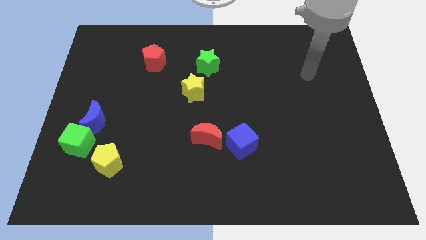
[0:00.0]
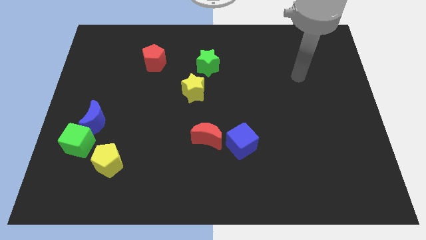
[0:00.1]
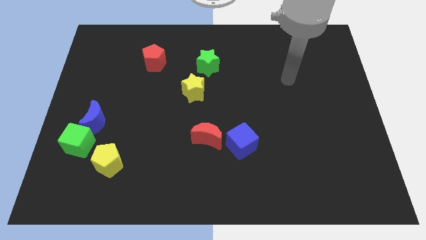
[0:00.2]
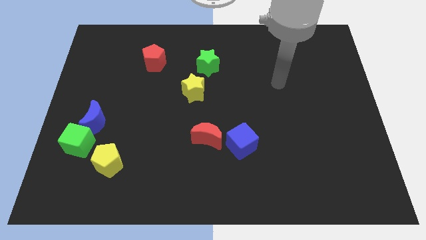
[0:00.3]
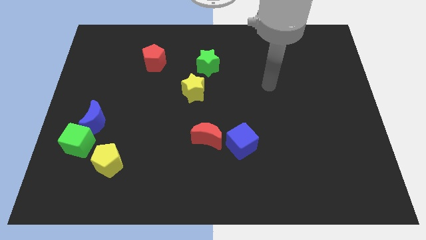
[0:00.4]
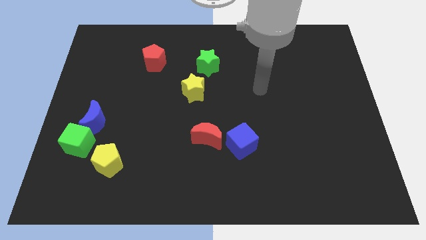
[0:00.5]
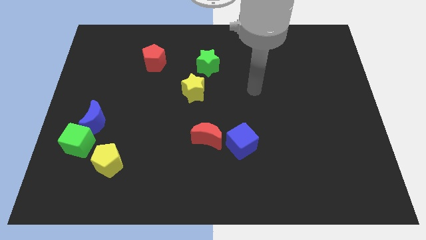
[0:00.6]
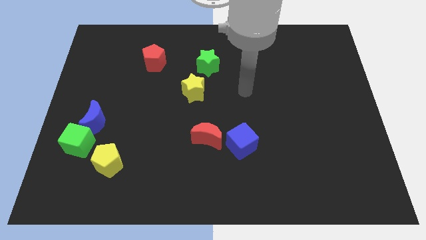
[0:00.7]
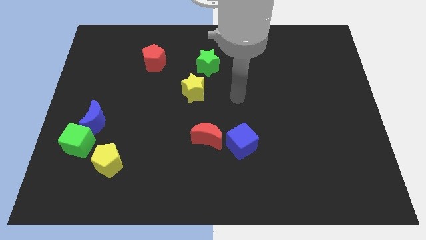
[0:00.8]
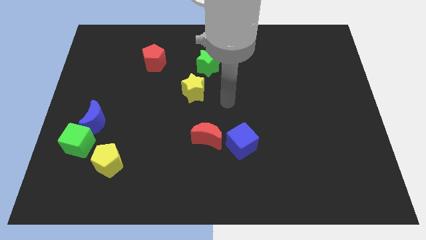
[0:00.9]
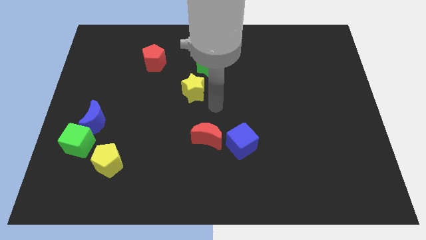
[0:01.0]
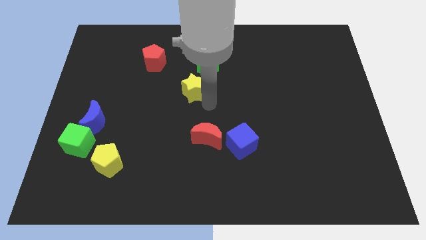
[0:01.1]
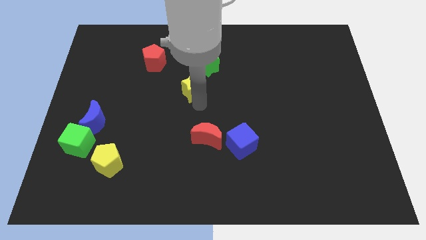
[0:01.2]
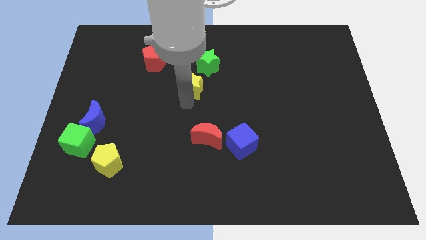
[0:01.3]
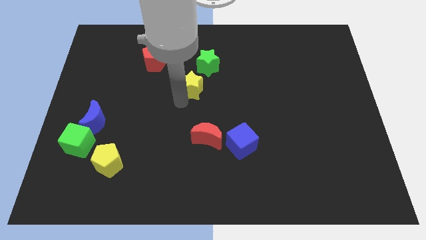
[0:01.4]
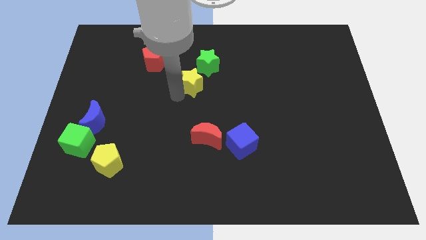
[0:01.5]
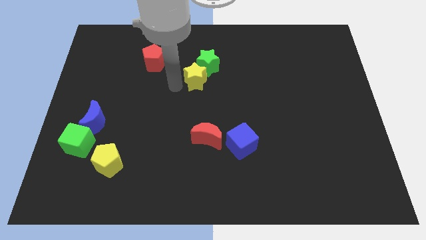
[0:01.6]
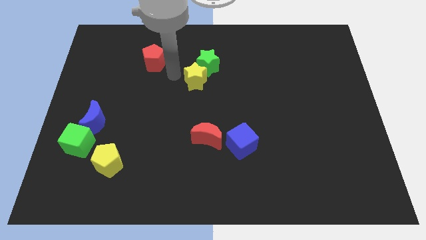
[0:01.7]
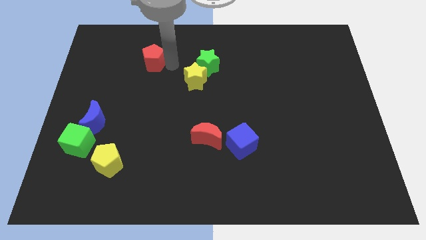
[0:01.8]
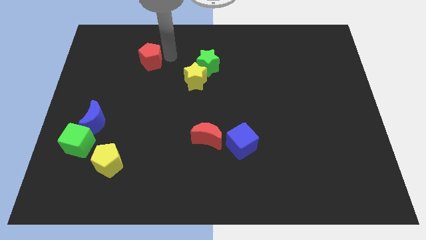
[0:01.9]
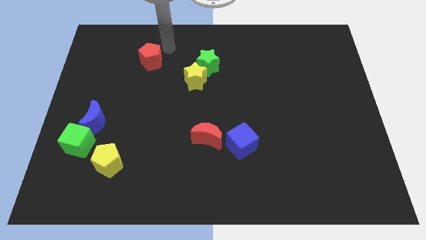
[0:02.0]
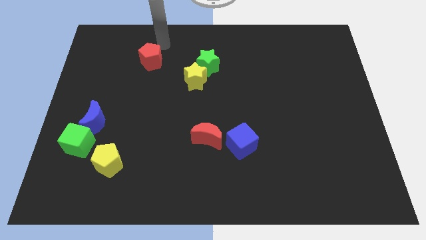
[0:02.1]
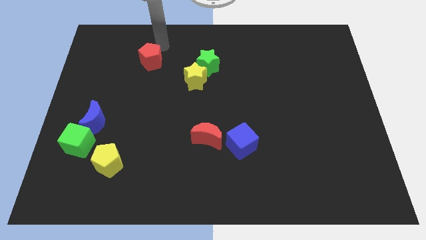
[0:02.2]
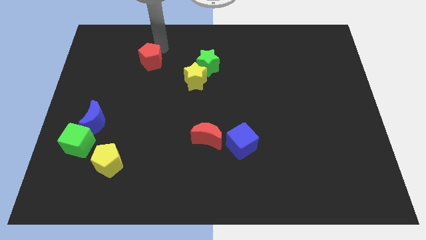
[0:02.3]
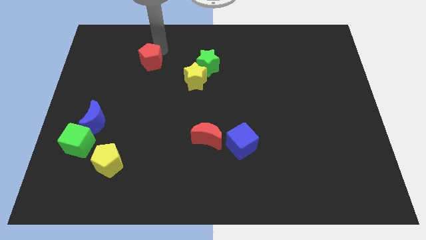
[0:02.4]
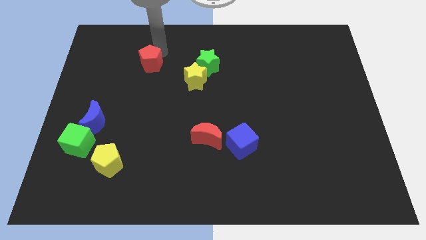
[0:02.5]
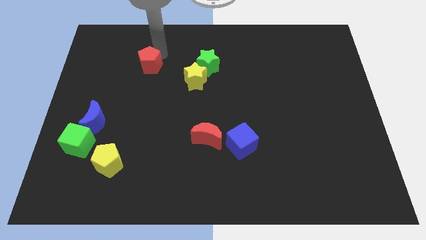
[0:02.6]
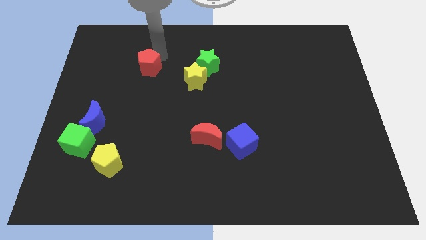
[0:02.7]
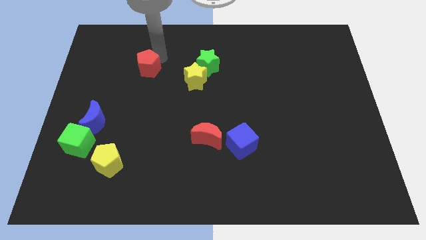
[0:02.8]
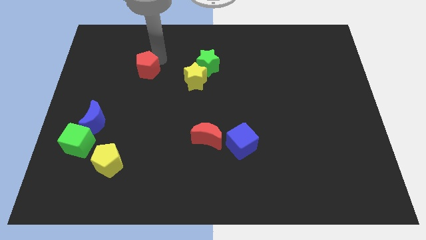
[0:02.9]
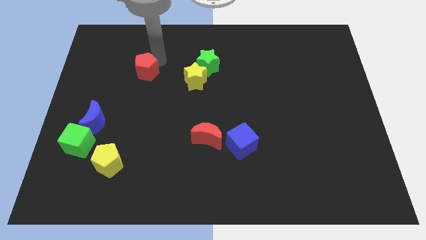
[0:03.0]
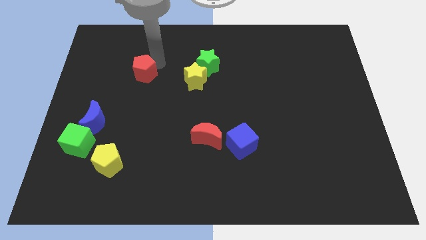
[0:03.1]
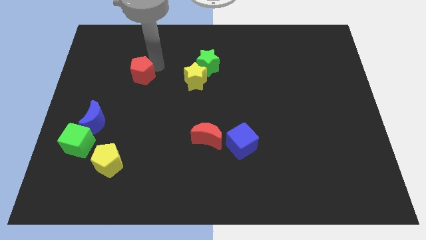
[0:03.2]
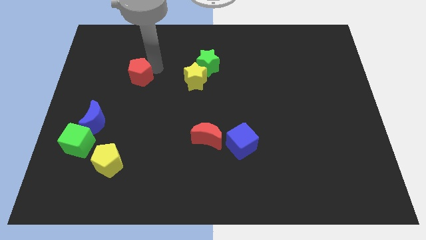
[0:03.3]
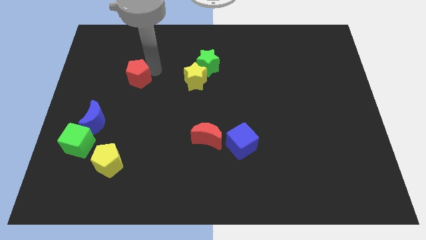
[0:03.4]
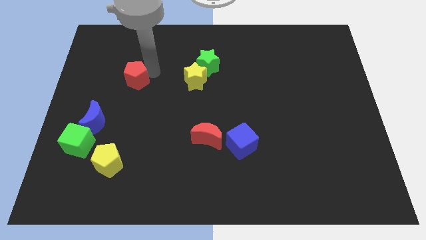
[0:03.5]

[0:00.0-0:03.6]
slightly push the red pentagon down and then left

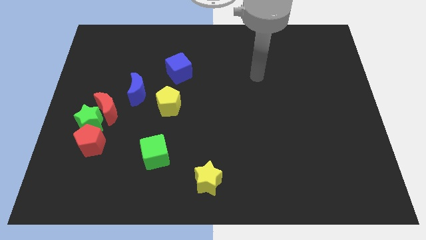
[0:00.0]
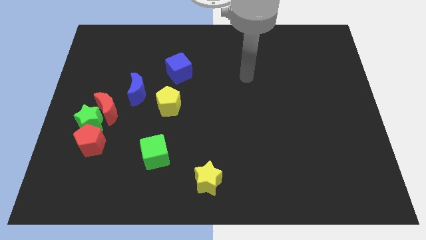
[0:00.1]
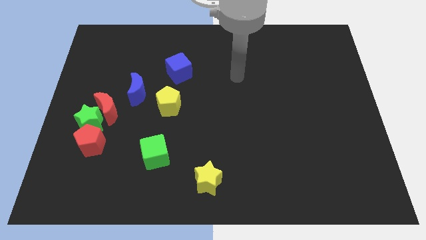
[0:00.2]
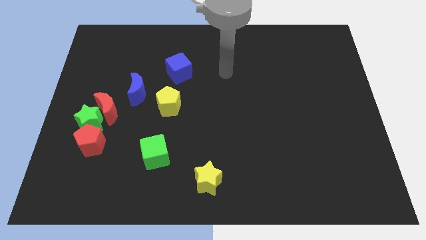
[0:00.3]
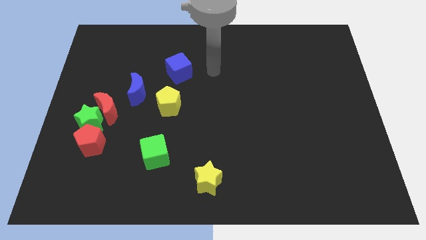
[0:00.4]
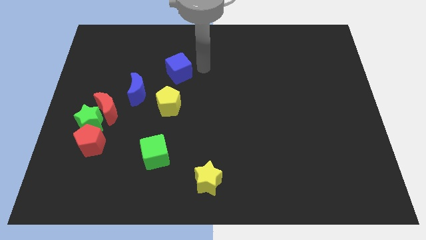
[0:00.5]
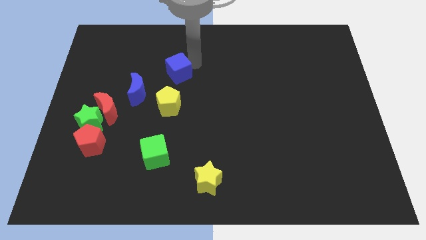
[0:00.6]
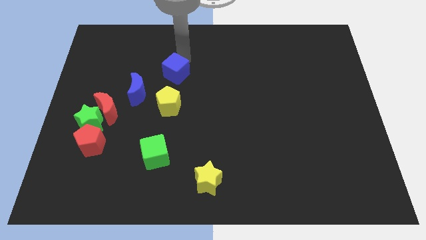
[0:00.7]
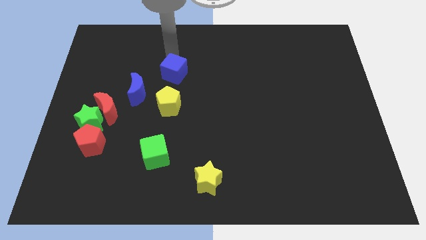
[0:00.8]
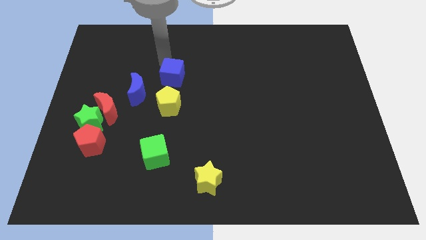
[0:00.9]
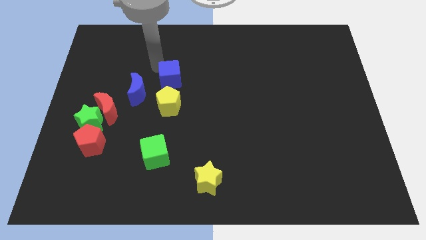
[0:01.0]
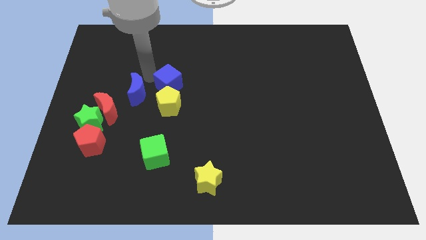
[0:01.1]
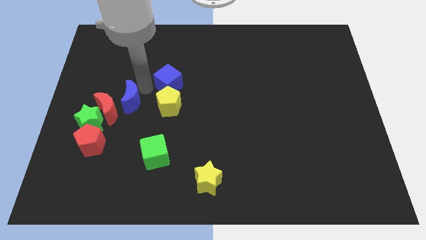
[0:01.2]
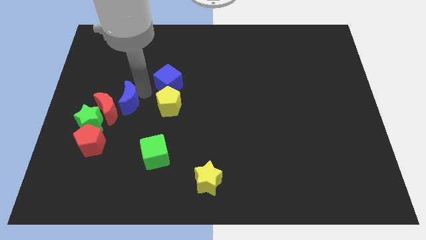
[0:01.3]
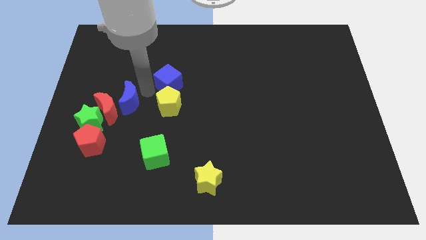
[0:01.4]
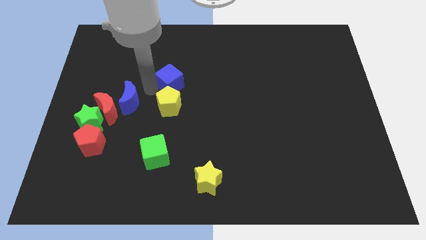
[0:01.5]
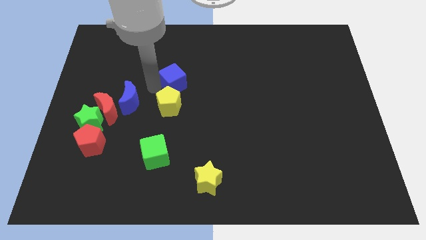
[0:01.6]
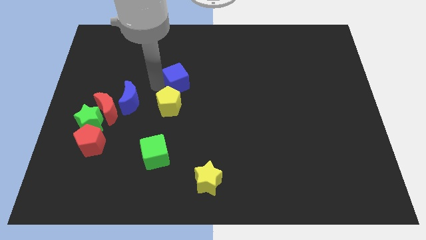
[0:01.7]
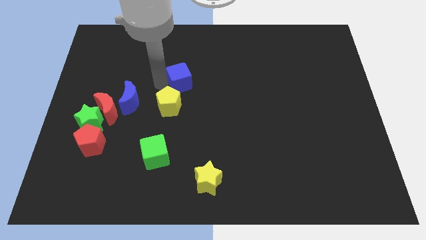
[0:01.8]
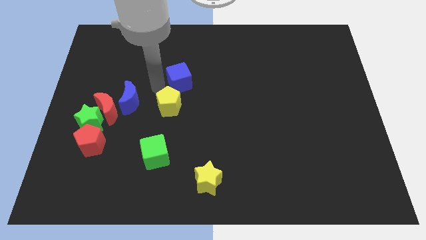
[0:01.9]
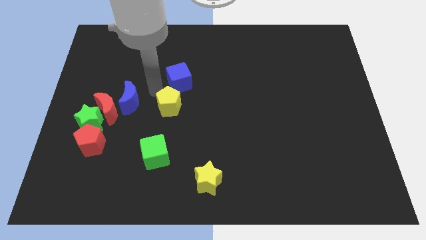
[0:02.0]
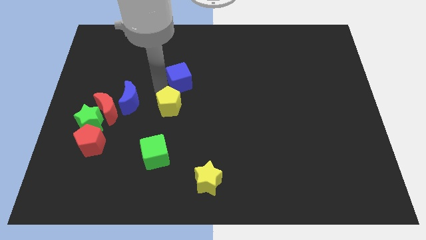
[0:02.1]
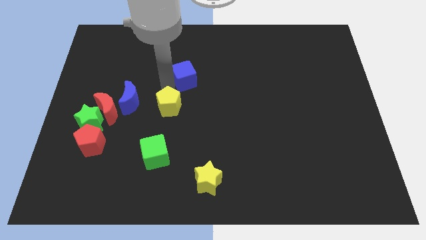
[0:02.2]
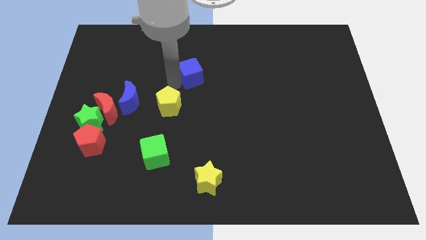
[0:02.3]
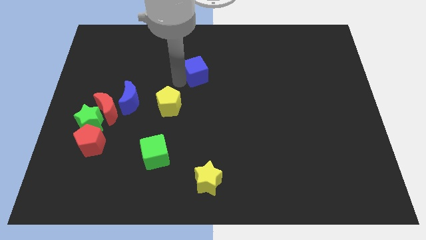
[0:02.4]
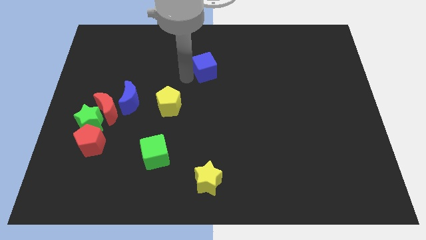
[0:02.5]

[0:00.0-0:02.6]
move the blue cube somewhat to the right

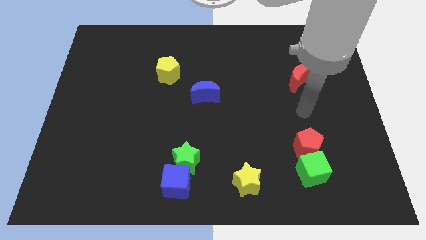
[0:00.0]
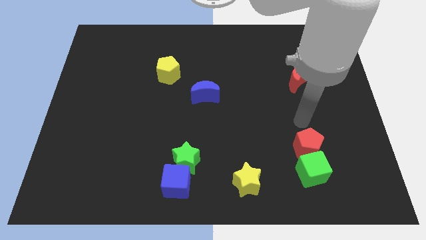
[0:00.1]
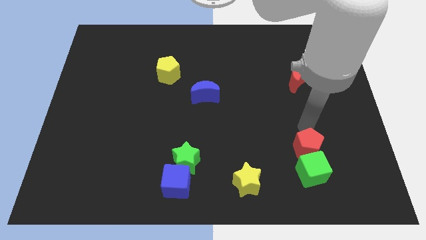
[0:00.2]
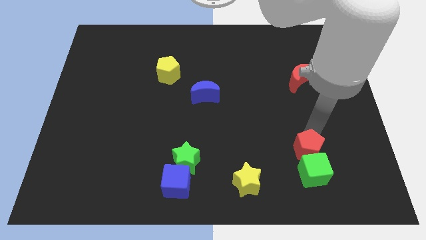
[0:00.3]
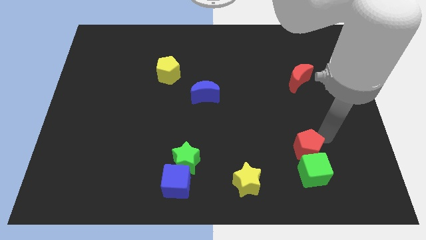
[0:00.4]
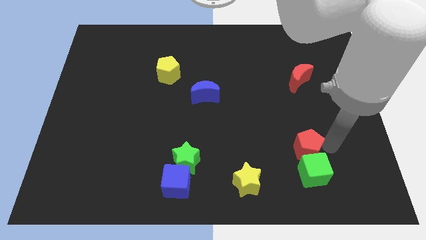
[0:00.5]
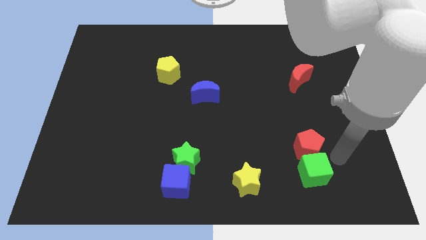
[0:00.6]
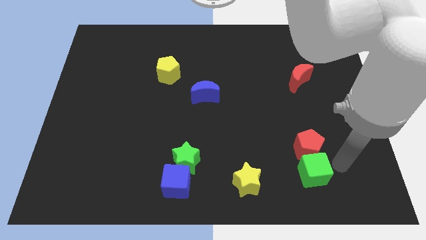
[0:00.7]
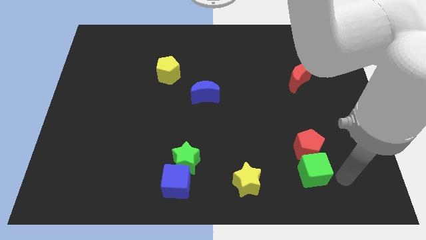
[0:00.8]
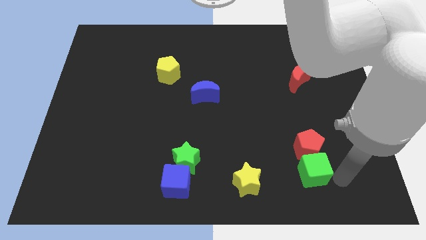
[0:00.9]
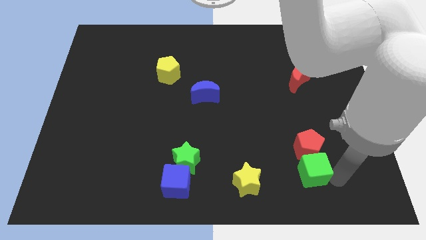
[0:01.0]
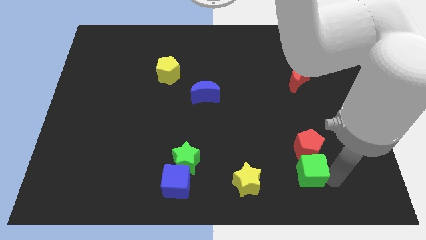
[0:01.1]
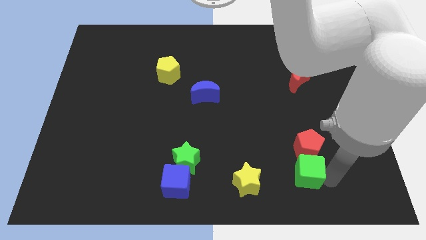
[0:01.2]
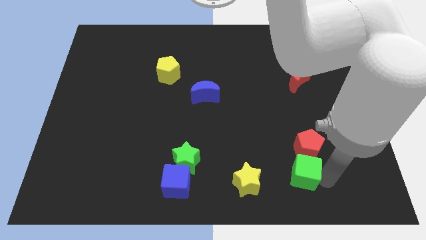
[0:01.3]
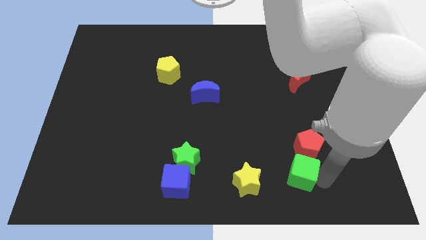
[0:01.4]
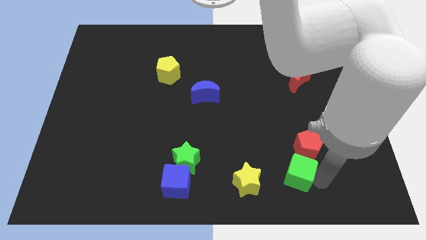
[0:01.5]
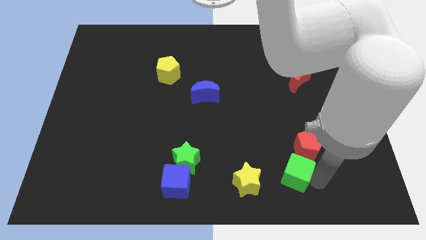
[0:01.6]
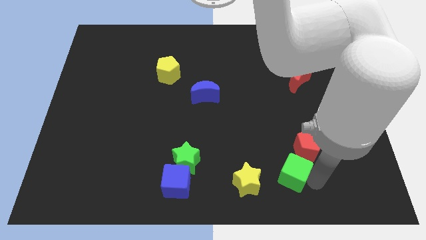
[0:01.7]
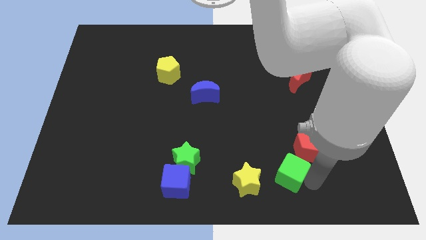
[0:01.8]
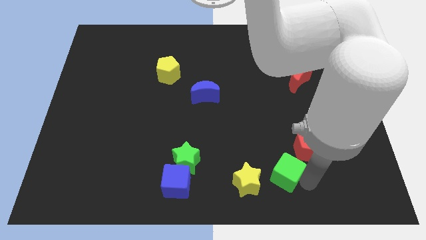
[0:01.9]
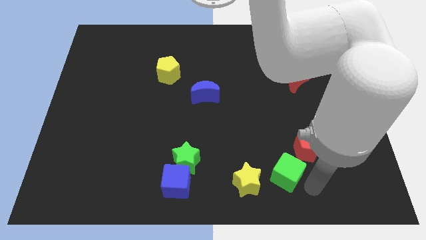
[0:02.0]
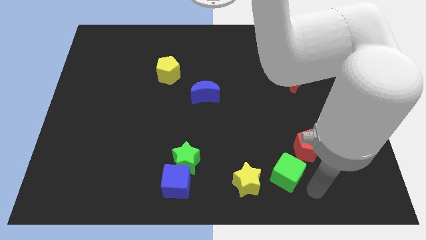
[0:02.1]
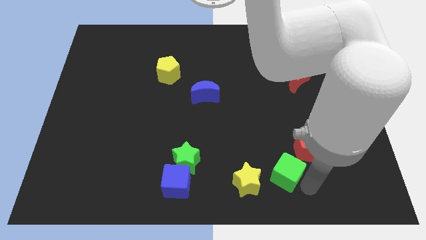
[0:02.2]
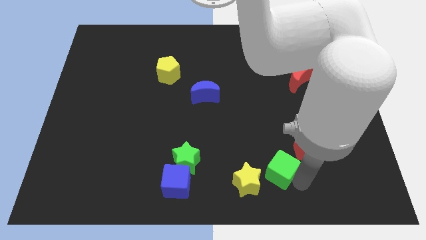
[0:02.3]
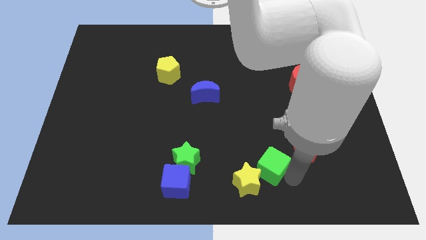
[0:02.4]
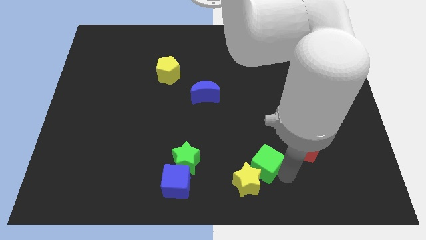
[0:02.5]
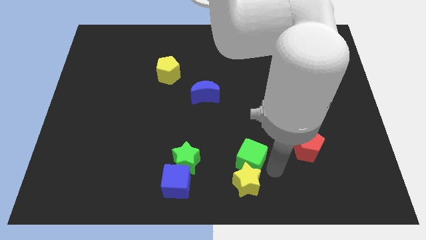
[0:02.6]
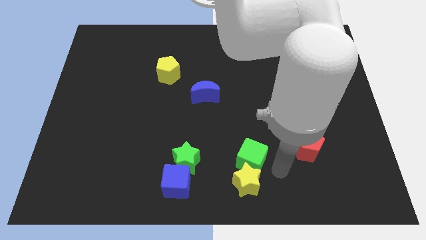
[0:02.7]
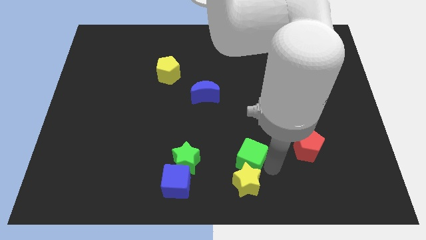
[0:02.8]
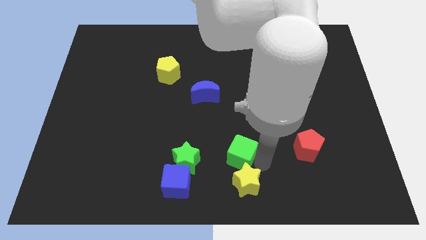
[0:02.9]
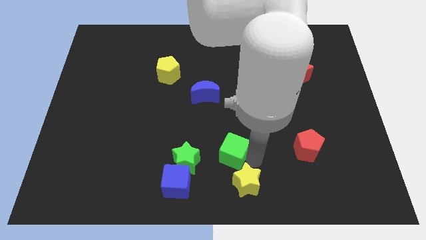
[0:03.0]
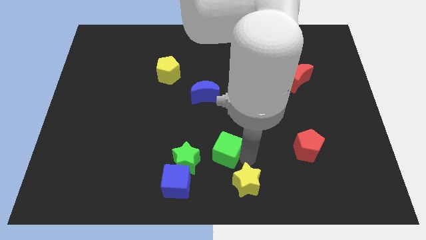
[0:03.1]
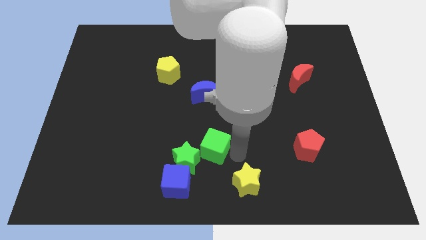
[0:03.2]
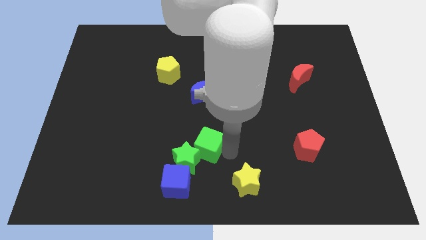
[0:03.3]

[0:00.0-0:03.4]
slide the green cube left
